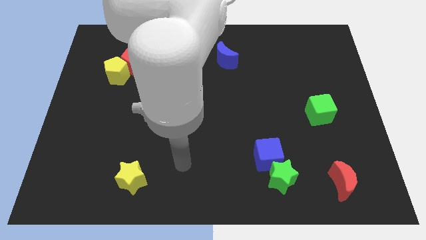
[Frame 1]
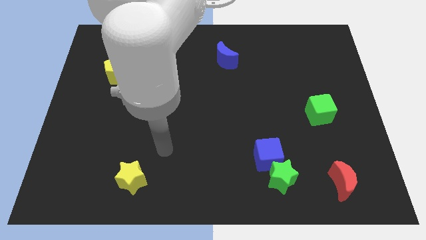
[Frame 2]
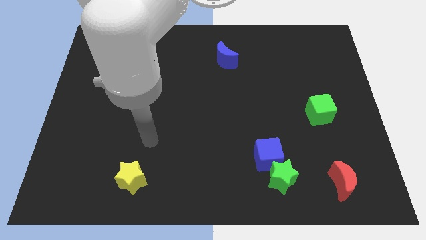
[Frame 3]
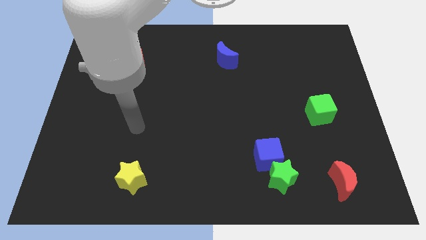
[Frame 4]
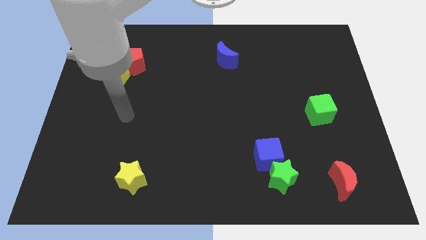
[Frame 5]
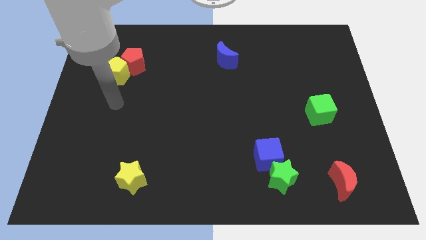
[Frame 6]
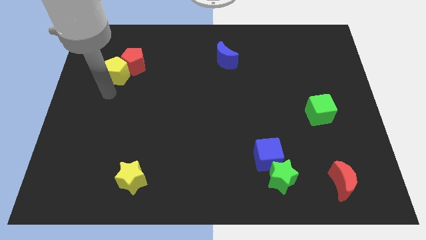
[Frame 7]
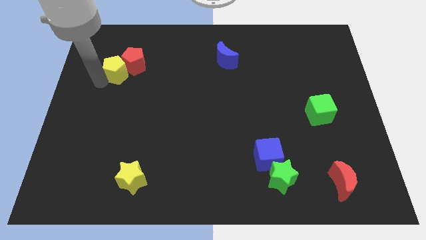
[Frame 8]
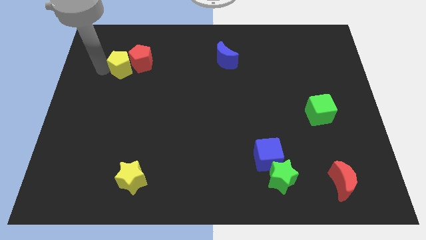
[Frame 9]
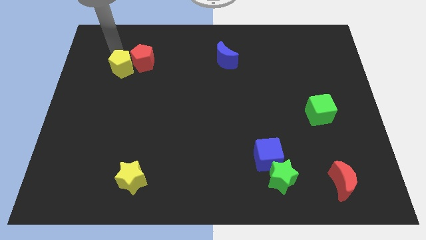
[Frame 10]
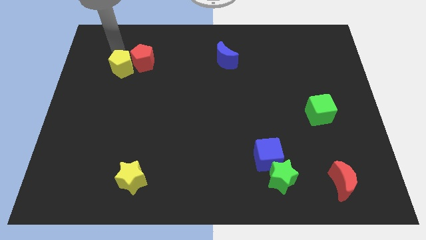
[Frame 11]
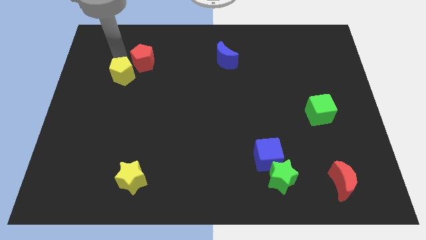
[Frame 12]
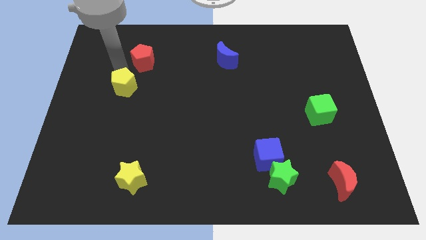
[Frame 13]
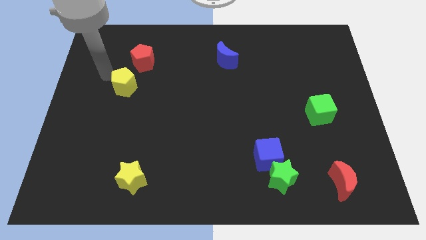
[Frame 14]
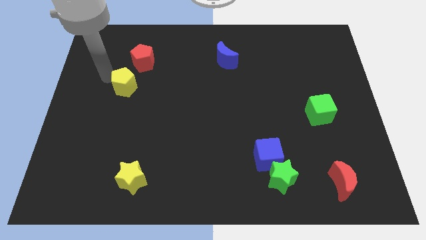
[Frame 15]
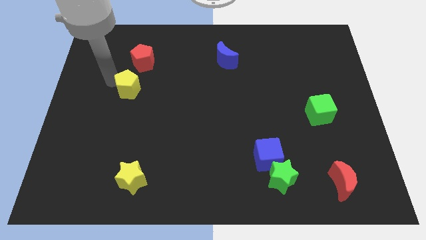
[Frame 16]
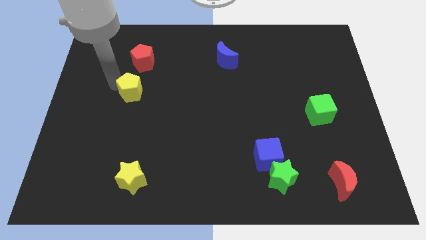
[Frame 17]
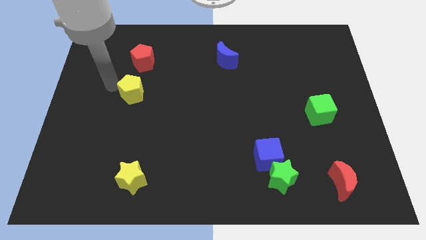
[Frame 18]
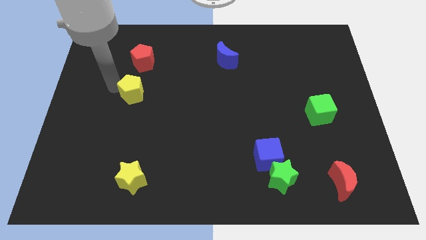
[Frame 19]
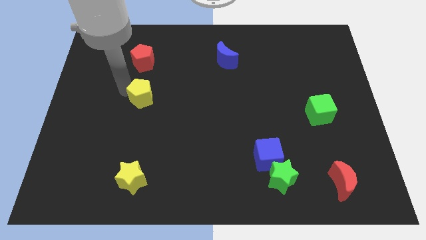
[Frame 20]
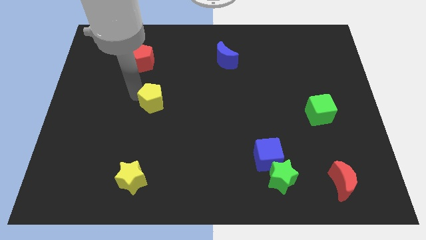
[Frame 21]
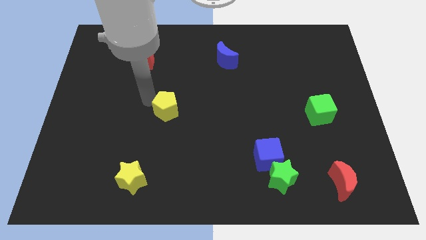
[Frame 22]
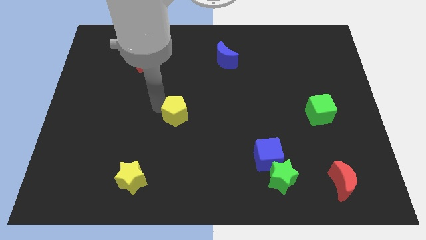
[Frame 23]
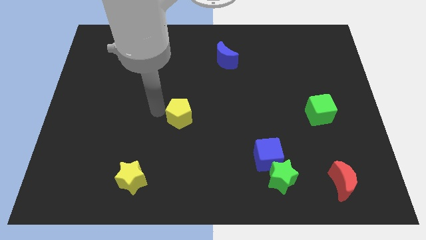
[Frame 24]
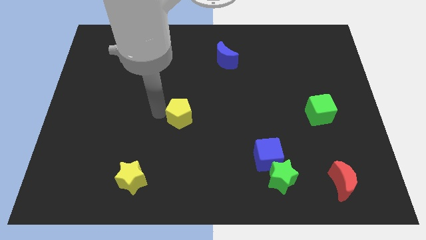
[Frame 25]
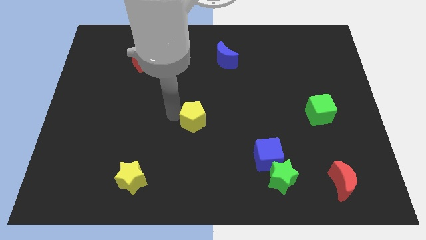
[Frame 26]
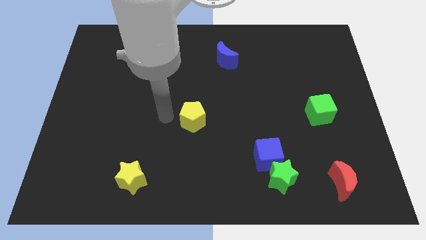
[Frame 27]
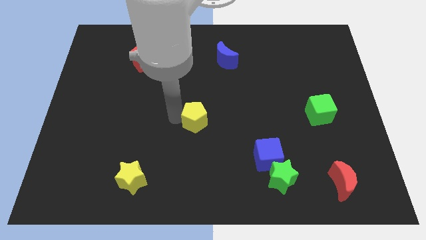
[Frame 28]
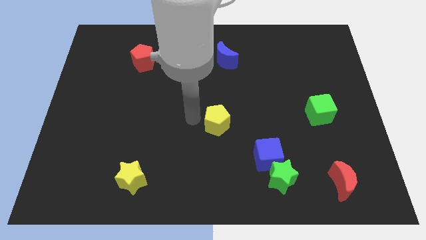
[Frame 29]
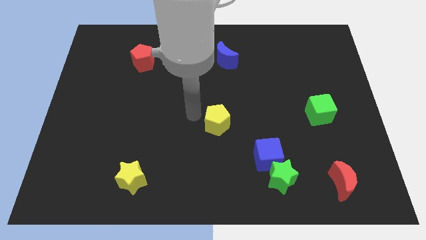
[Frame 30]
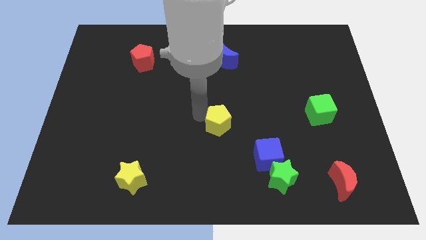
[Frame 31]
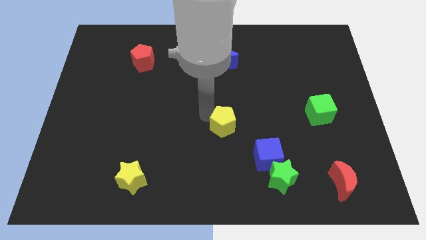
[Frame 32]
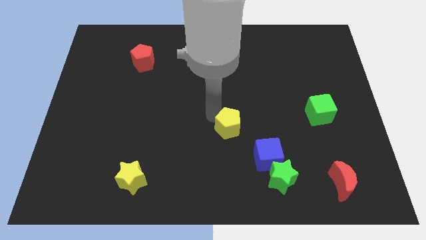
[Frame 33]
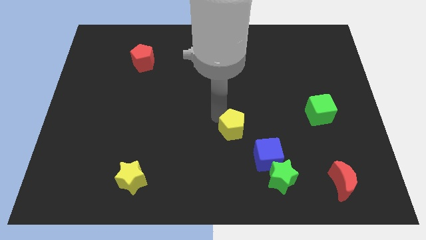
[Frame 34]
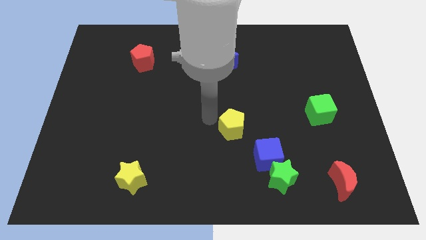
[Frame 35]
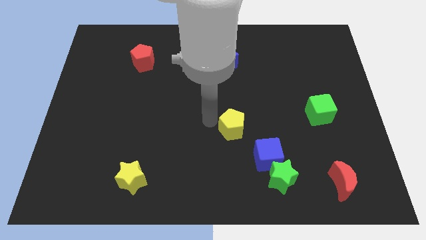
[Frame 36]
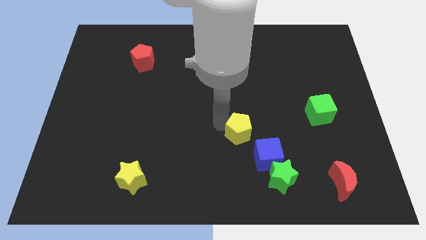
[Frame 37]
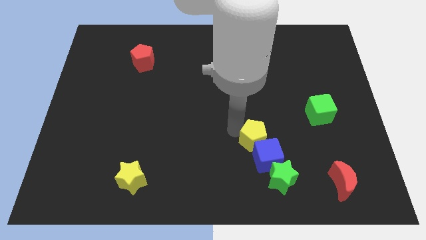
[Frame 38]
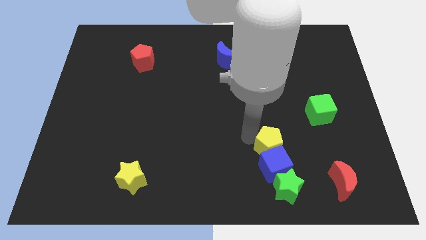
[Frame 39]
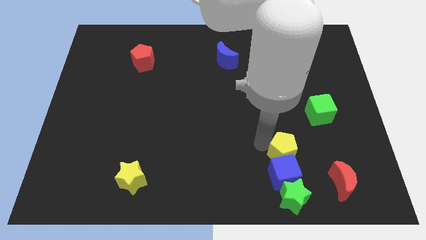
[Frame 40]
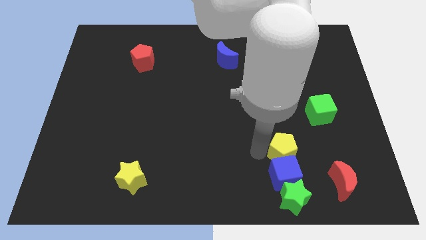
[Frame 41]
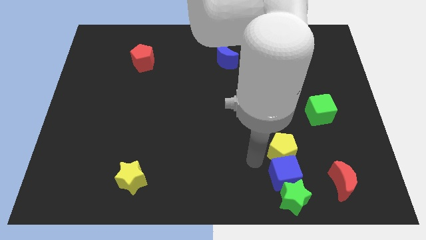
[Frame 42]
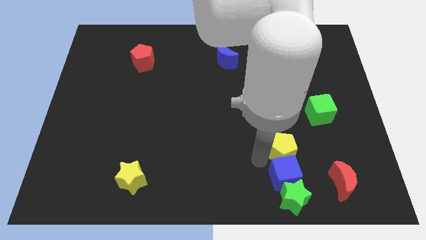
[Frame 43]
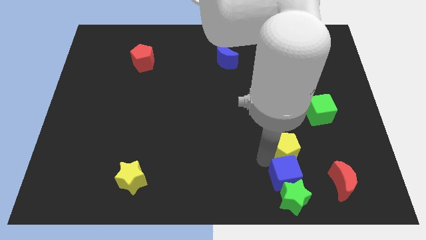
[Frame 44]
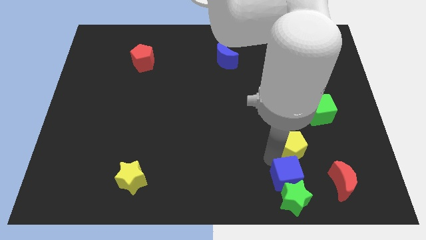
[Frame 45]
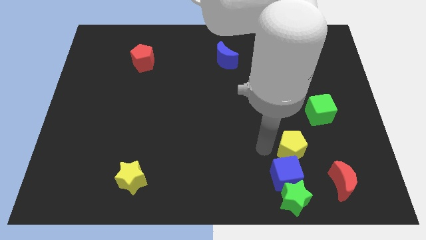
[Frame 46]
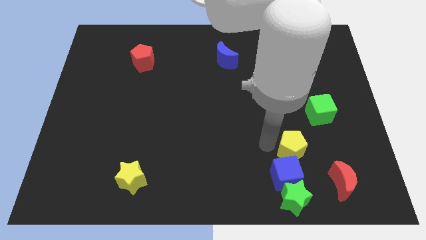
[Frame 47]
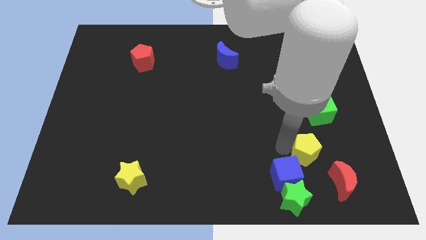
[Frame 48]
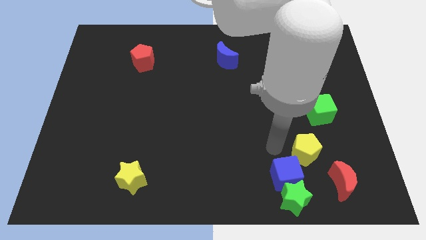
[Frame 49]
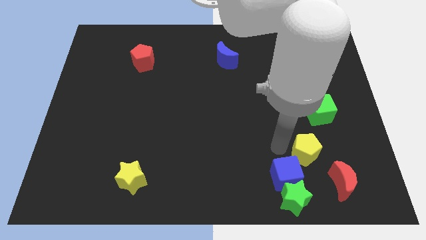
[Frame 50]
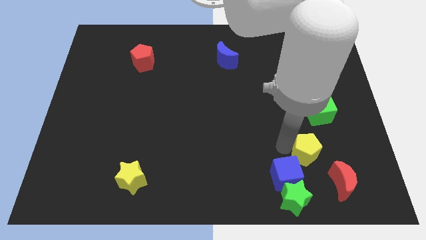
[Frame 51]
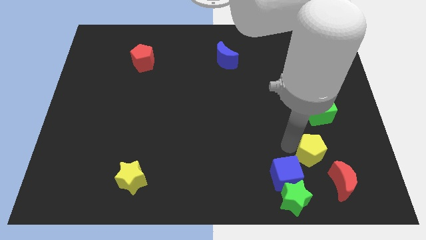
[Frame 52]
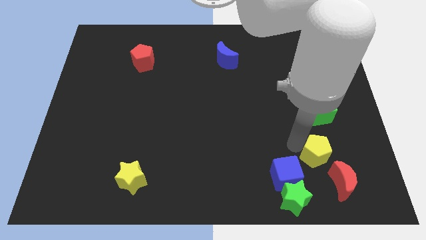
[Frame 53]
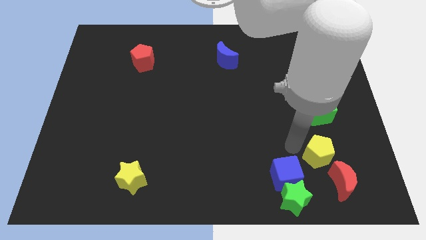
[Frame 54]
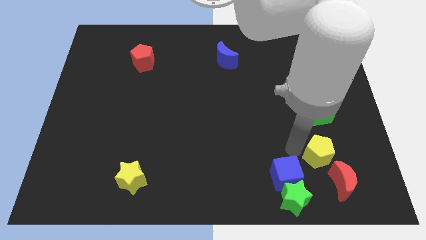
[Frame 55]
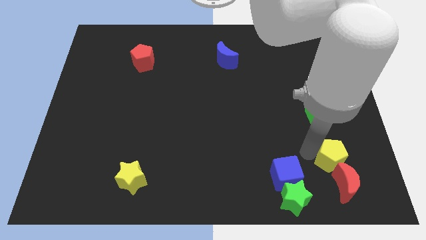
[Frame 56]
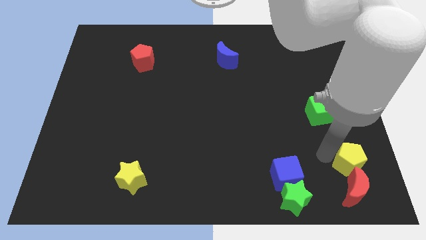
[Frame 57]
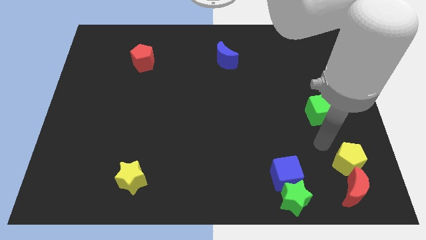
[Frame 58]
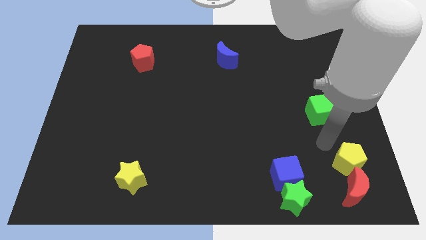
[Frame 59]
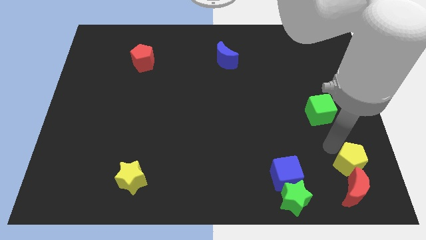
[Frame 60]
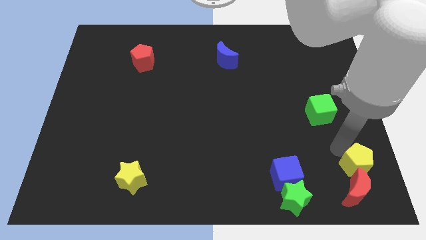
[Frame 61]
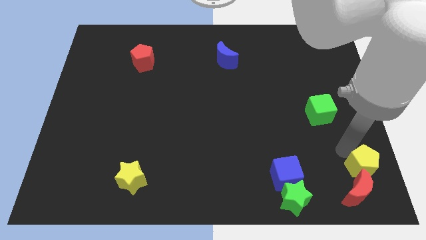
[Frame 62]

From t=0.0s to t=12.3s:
push the yellow pentagon to the bottom right corner

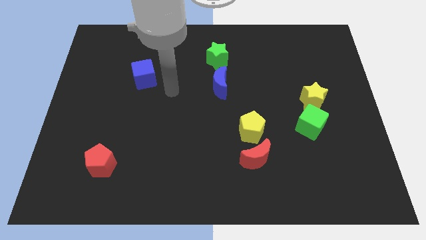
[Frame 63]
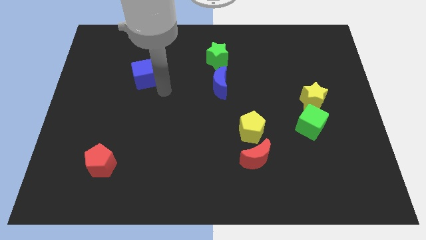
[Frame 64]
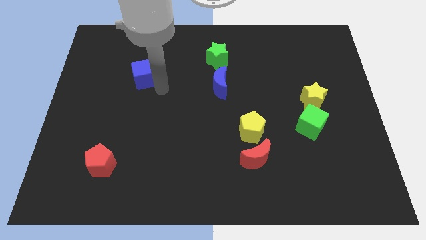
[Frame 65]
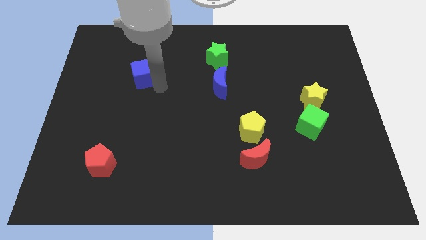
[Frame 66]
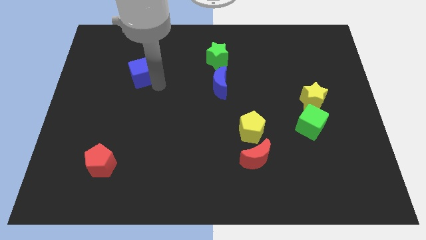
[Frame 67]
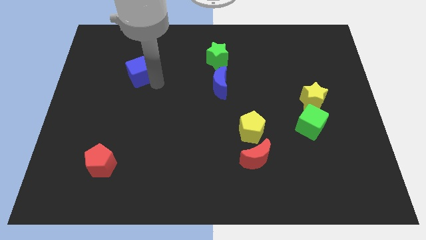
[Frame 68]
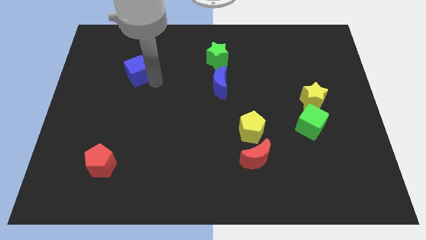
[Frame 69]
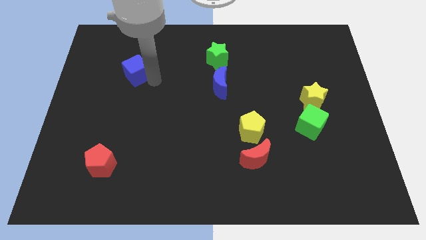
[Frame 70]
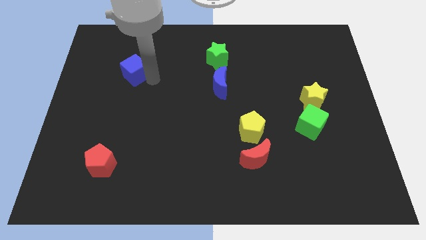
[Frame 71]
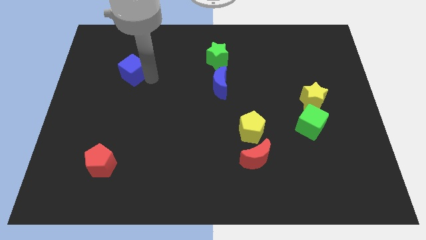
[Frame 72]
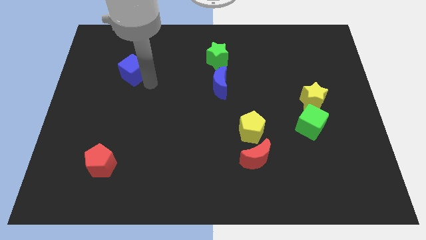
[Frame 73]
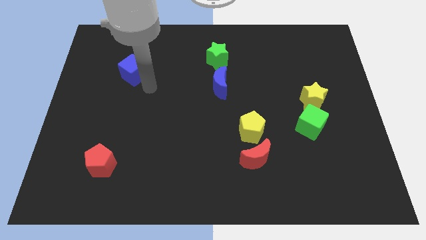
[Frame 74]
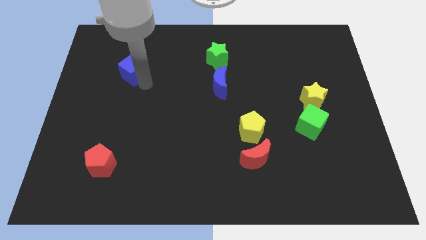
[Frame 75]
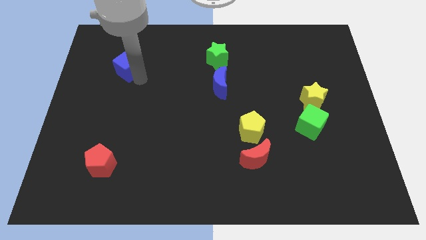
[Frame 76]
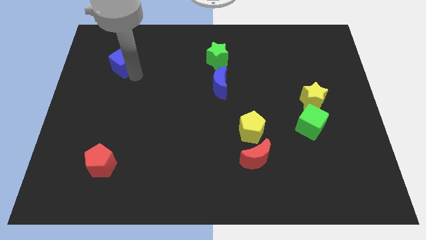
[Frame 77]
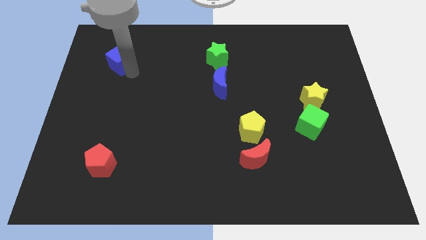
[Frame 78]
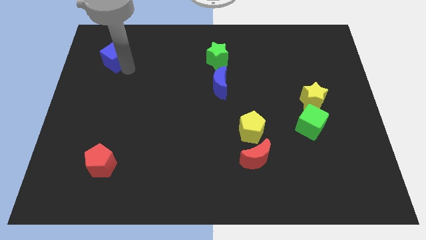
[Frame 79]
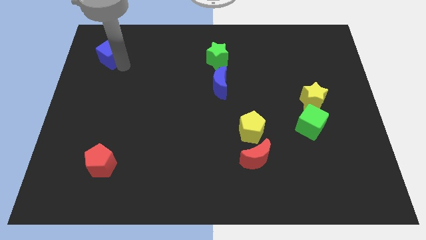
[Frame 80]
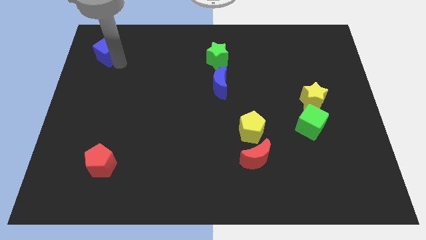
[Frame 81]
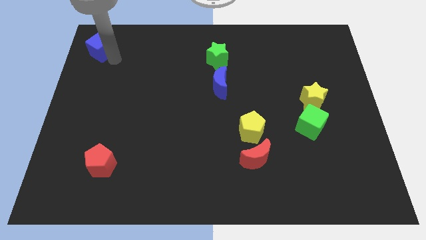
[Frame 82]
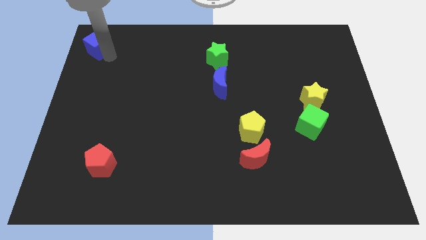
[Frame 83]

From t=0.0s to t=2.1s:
slide the blue cube to the top left of the board
